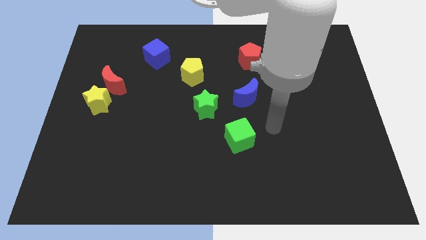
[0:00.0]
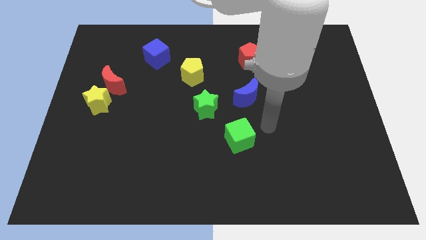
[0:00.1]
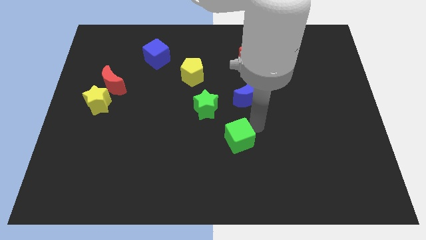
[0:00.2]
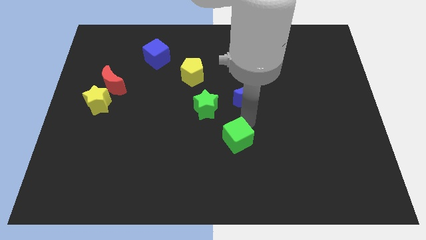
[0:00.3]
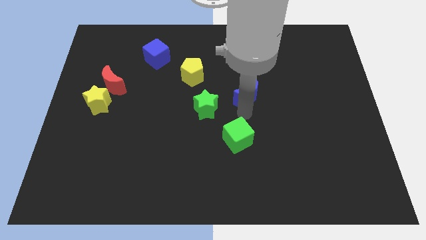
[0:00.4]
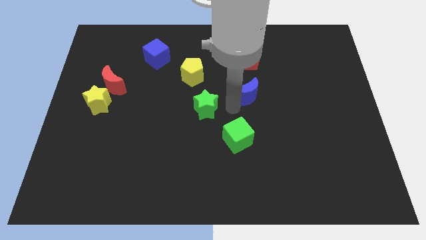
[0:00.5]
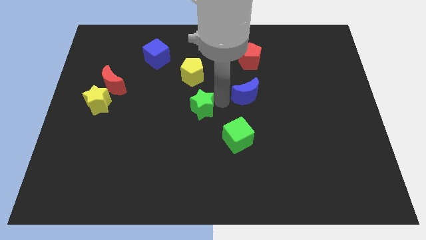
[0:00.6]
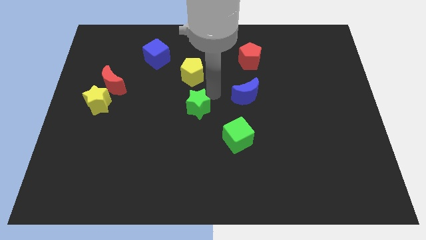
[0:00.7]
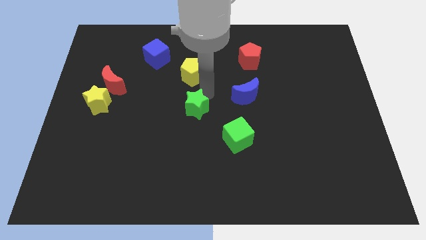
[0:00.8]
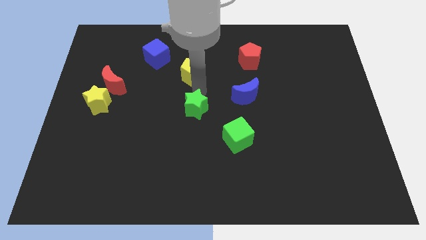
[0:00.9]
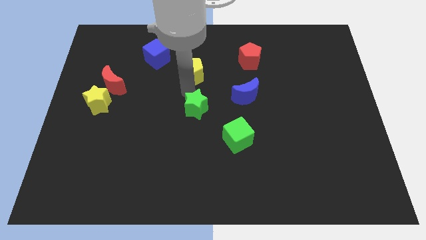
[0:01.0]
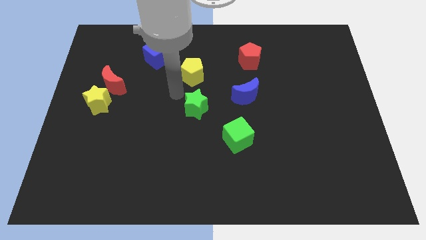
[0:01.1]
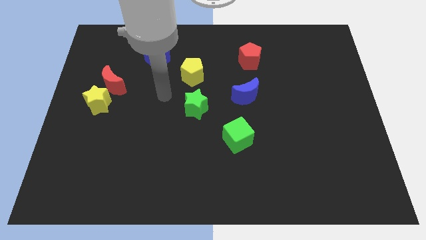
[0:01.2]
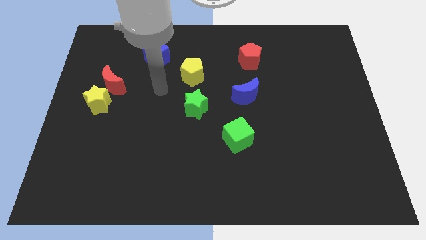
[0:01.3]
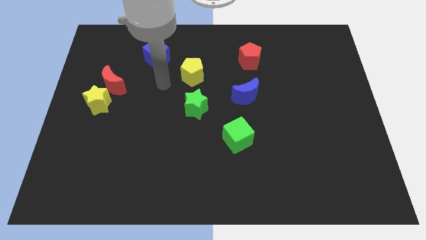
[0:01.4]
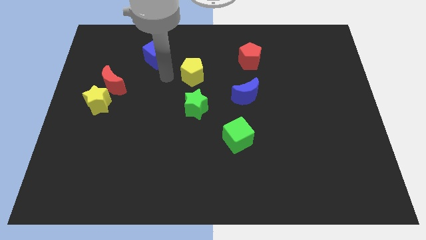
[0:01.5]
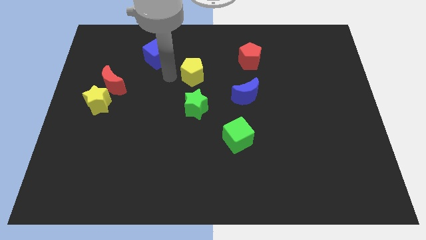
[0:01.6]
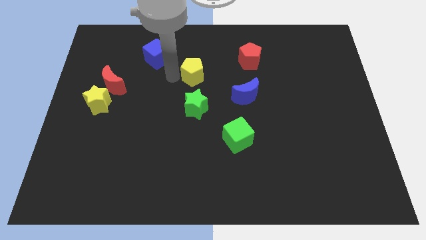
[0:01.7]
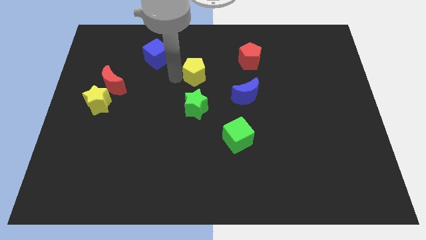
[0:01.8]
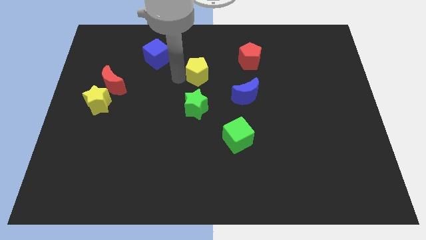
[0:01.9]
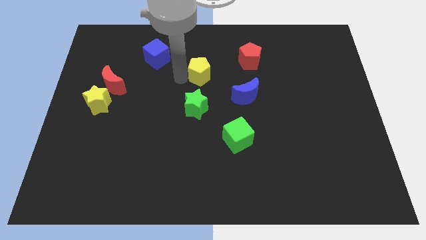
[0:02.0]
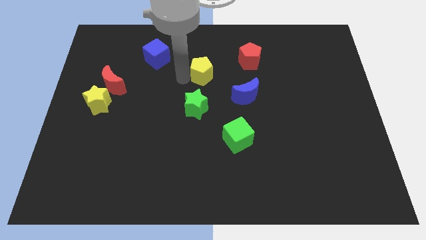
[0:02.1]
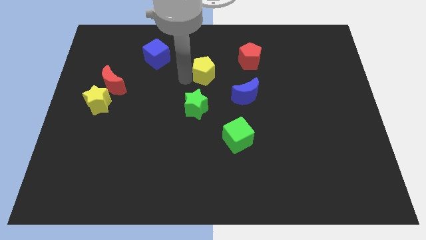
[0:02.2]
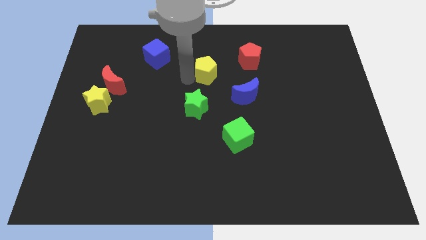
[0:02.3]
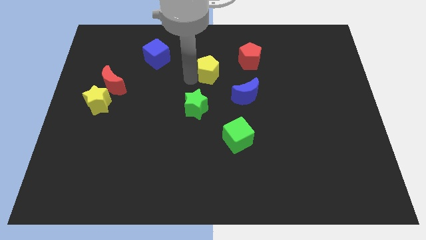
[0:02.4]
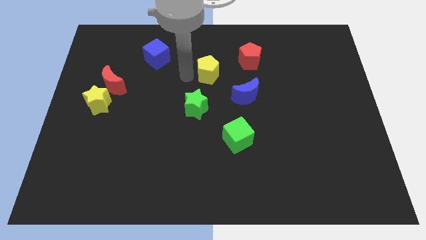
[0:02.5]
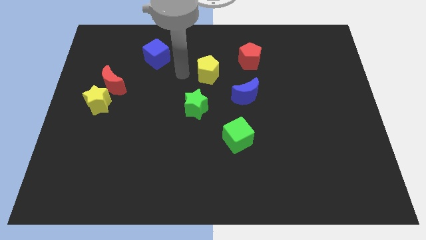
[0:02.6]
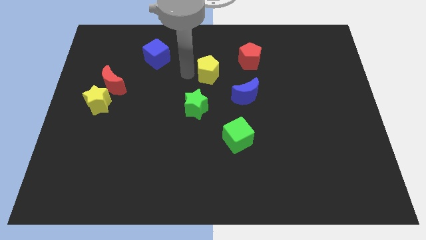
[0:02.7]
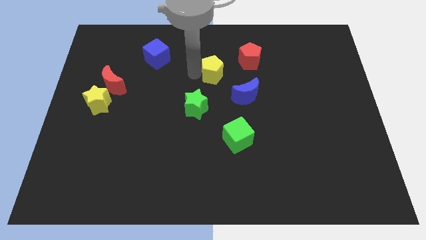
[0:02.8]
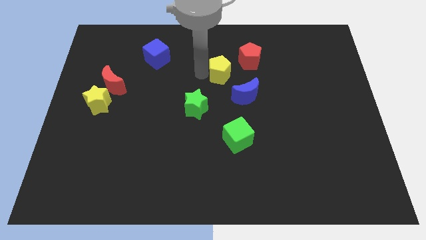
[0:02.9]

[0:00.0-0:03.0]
push the yellow pentagon a little bit to the right

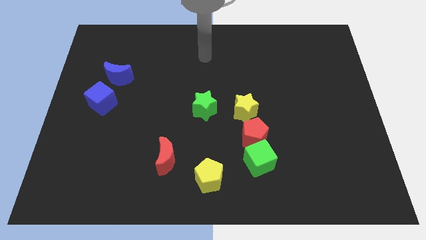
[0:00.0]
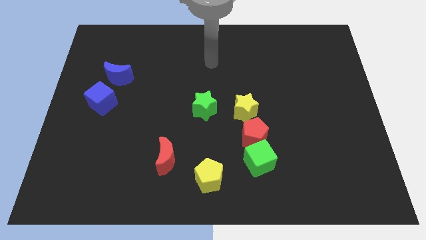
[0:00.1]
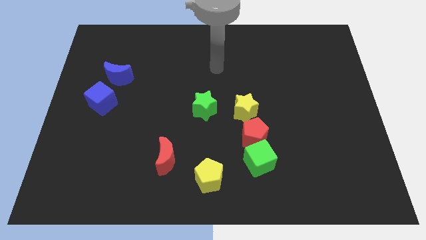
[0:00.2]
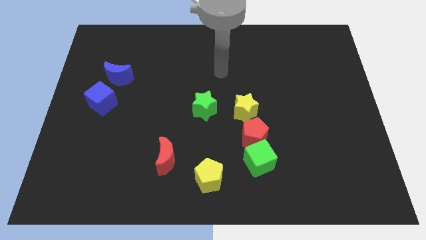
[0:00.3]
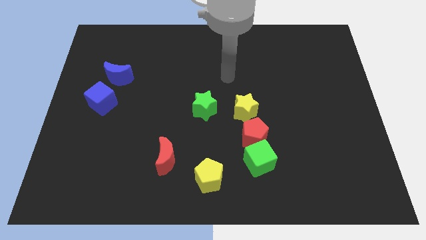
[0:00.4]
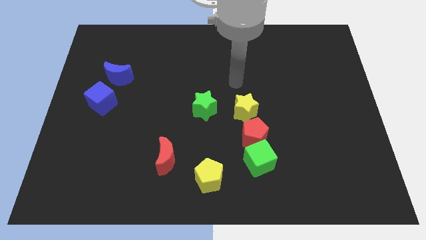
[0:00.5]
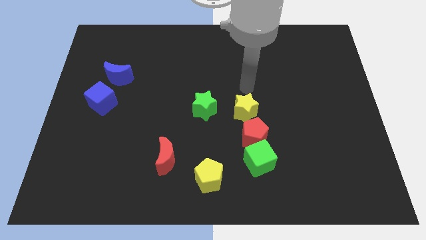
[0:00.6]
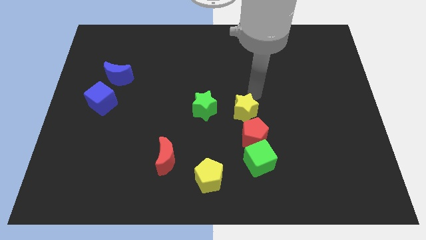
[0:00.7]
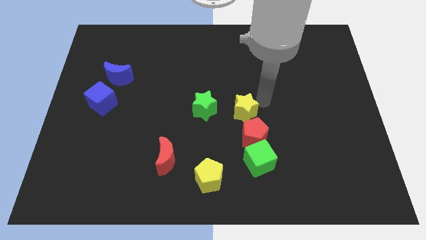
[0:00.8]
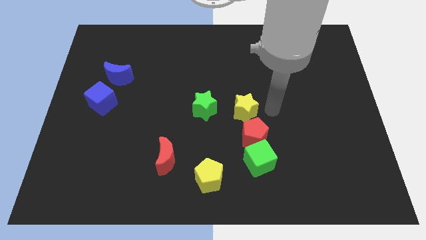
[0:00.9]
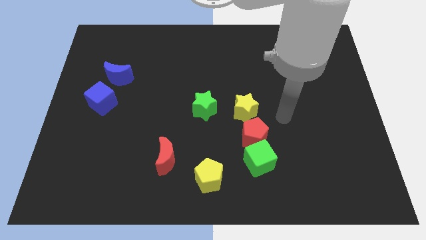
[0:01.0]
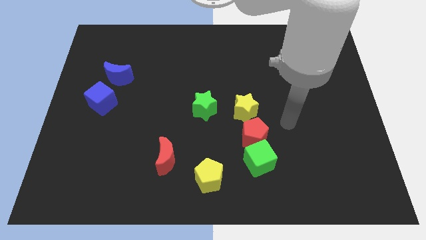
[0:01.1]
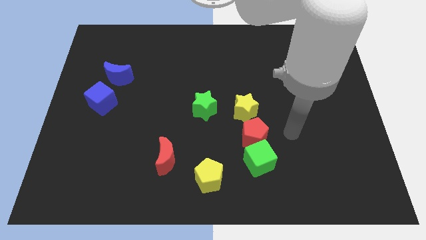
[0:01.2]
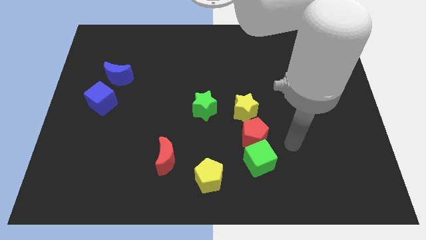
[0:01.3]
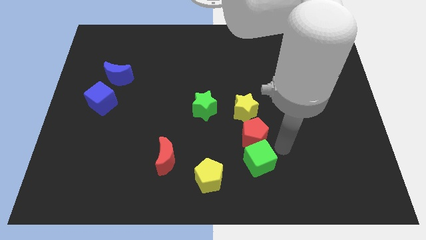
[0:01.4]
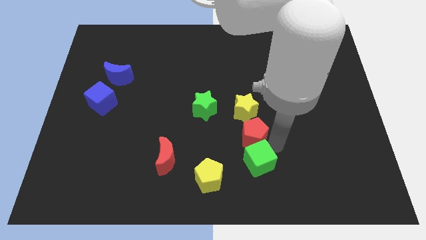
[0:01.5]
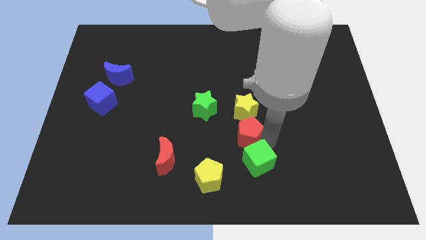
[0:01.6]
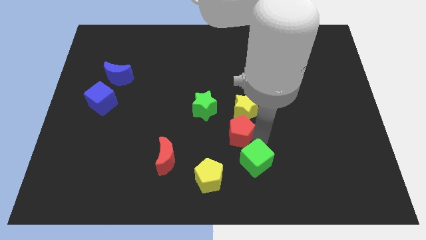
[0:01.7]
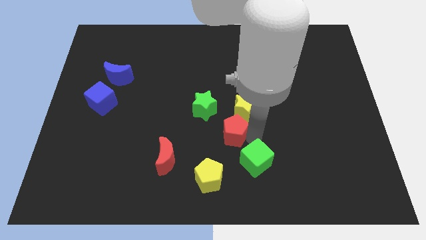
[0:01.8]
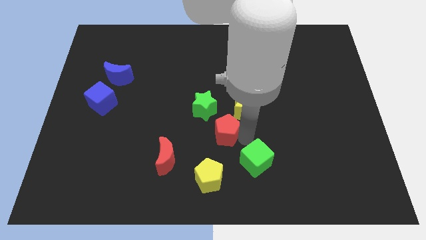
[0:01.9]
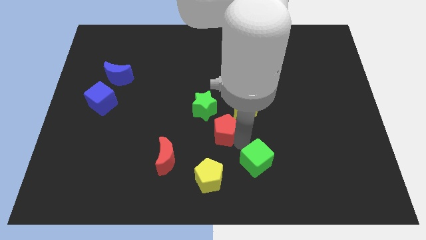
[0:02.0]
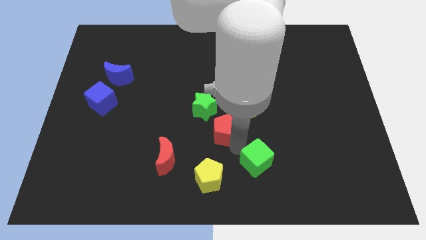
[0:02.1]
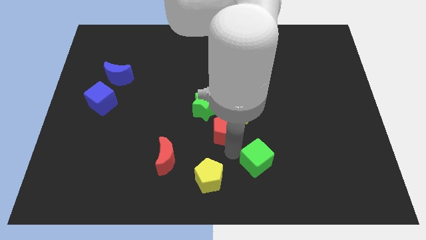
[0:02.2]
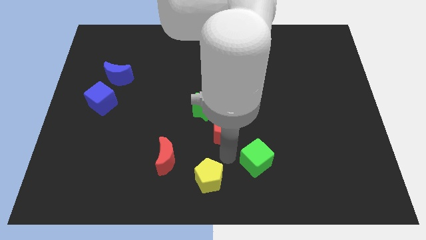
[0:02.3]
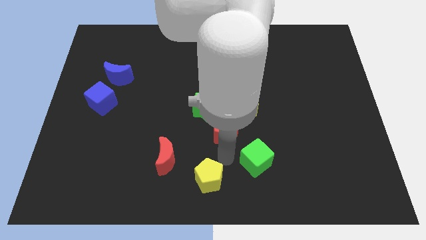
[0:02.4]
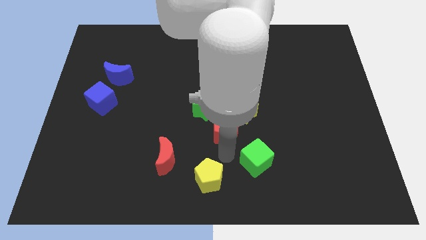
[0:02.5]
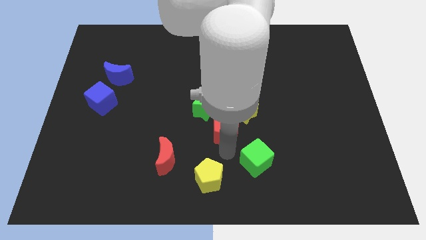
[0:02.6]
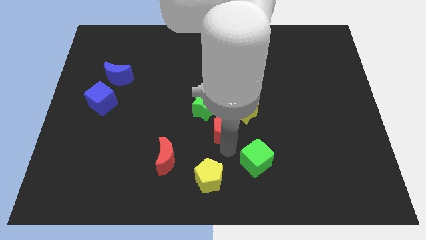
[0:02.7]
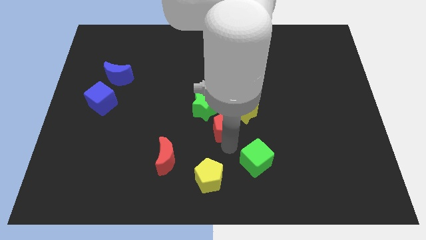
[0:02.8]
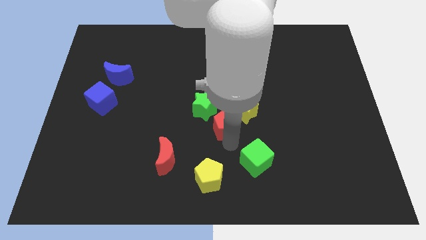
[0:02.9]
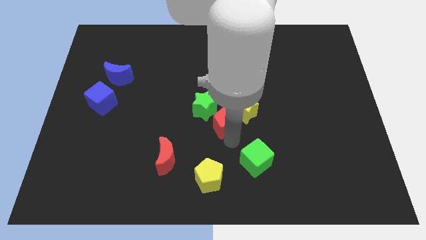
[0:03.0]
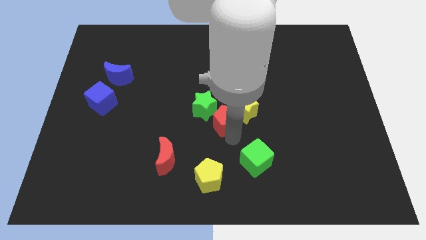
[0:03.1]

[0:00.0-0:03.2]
move the red pentagon a bit up and left diagonally

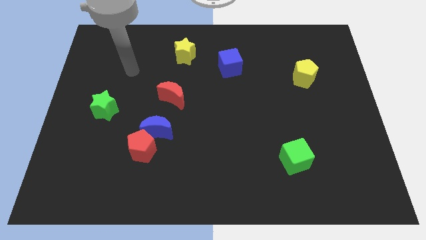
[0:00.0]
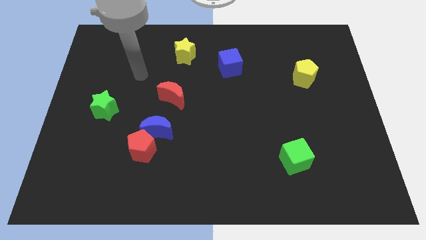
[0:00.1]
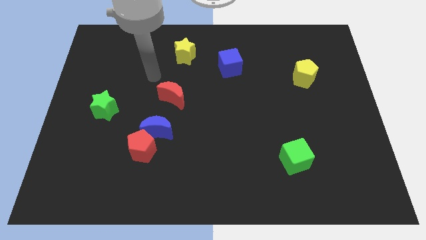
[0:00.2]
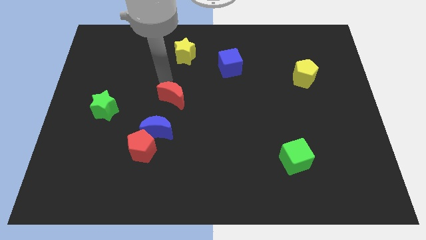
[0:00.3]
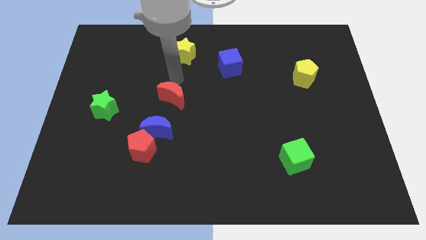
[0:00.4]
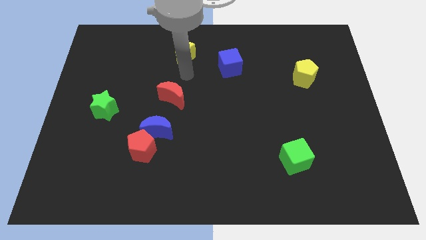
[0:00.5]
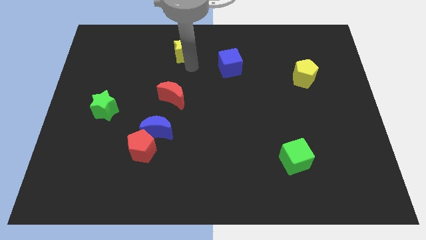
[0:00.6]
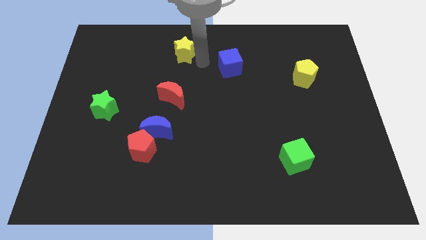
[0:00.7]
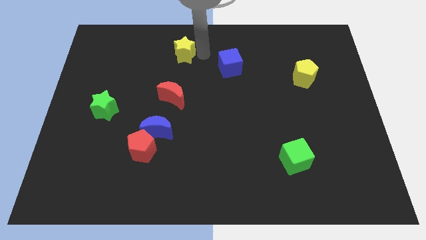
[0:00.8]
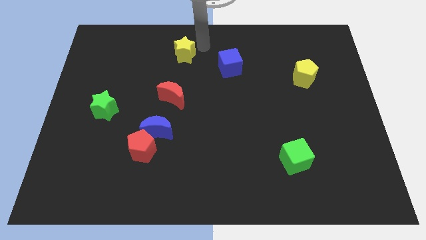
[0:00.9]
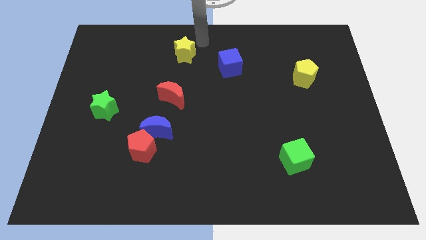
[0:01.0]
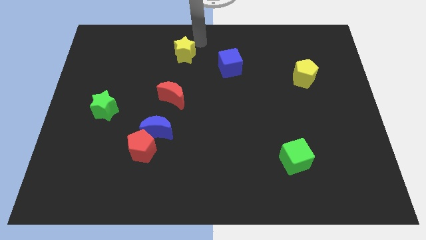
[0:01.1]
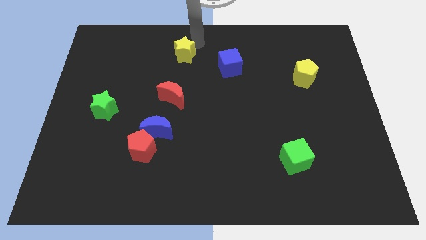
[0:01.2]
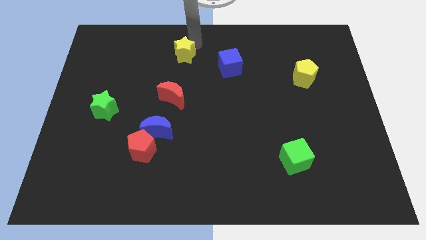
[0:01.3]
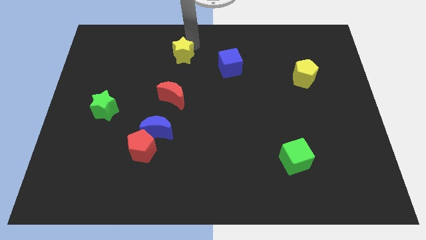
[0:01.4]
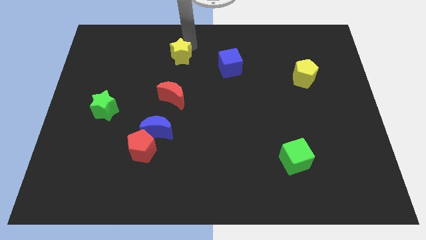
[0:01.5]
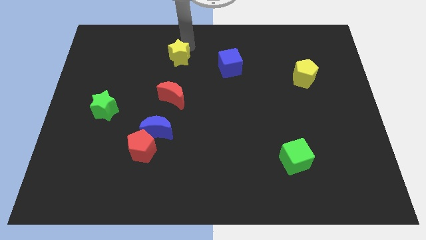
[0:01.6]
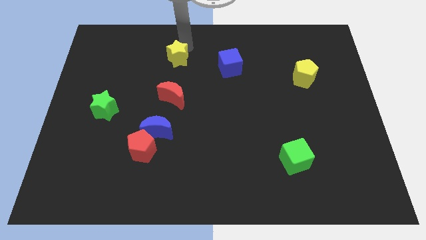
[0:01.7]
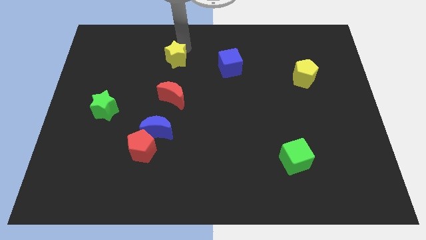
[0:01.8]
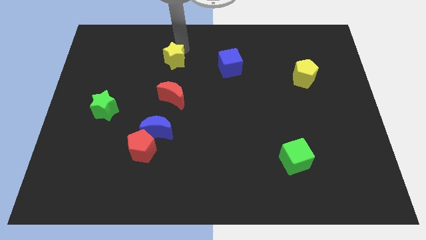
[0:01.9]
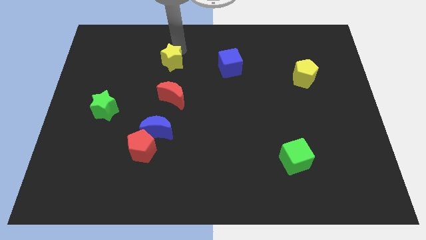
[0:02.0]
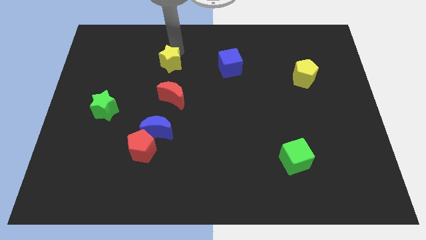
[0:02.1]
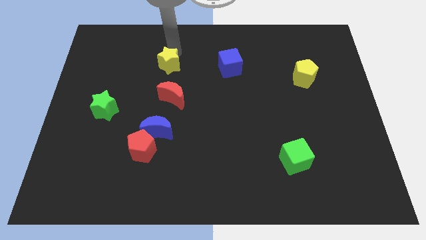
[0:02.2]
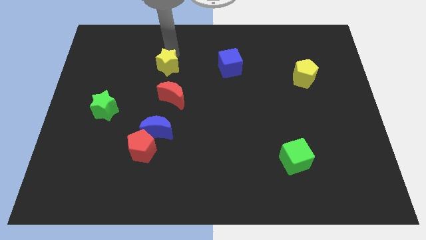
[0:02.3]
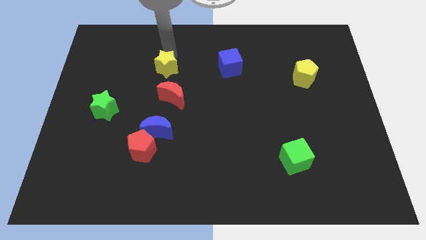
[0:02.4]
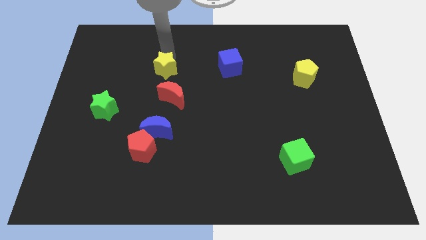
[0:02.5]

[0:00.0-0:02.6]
slightly move the yellow star diagonally downwards and left
